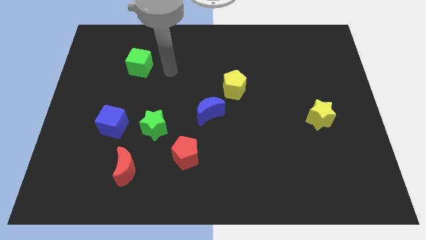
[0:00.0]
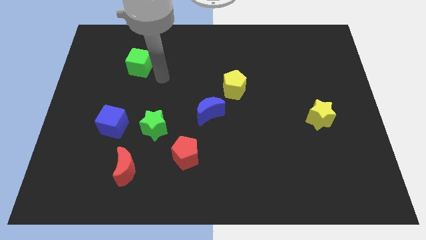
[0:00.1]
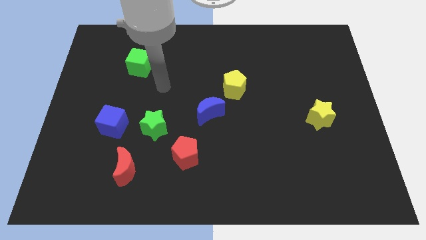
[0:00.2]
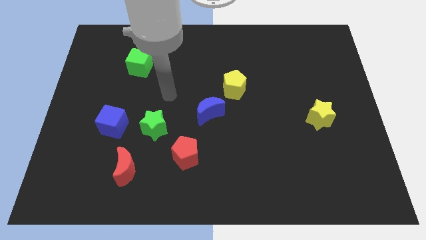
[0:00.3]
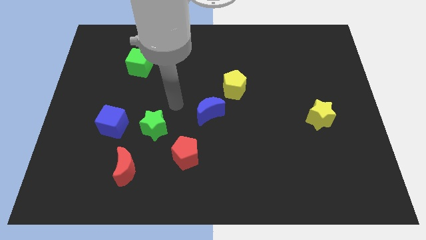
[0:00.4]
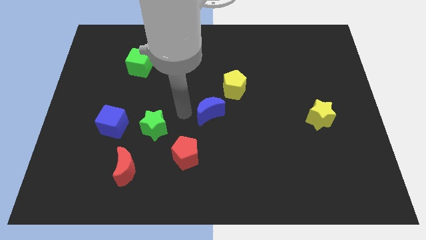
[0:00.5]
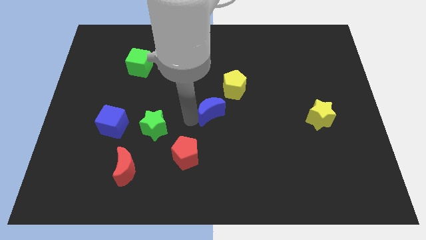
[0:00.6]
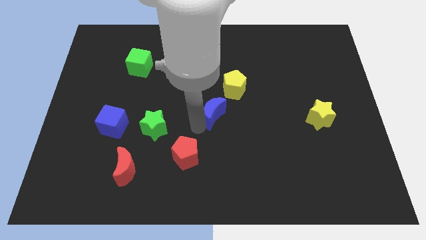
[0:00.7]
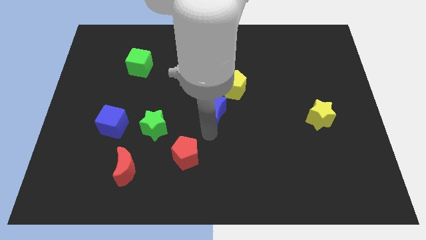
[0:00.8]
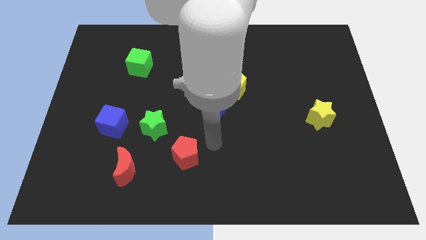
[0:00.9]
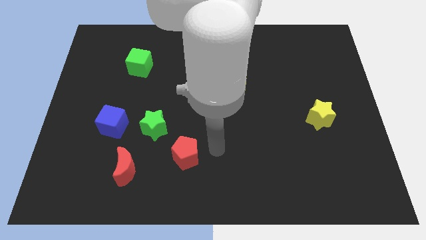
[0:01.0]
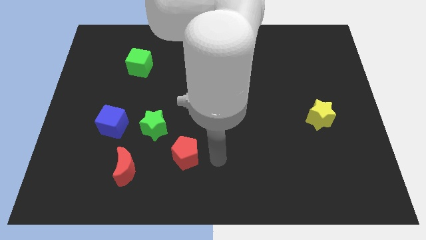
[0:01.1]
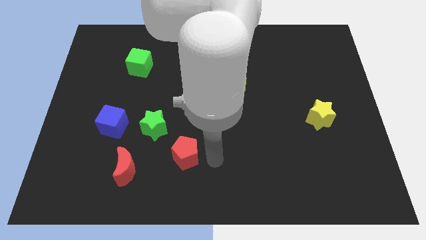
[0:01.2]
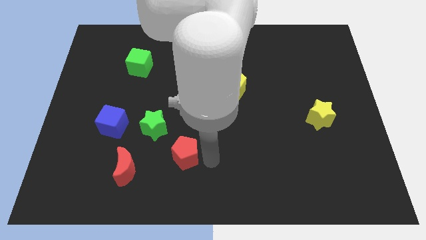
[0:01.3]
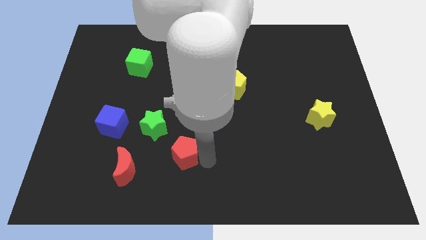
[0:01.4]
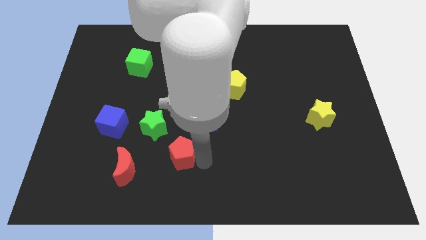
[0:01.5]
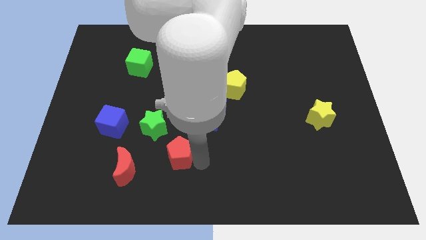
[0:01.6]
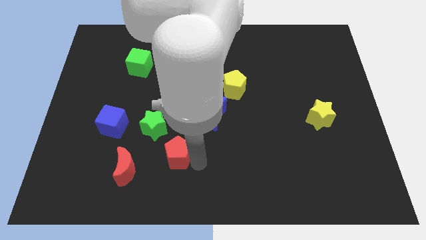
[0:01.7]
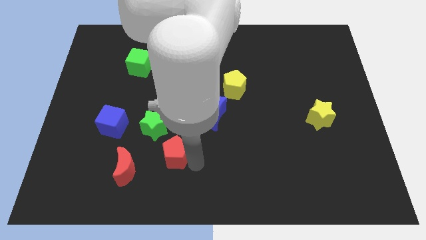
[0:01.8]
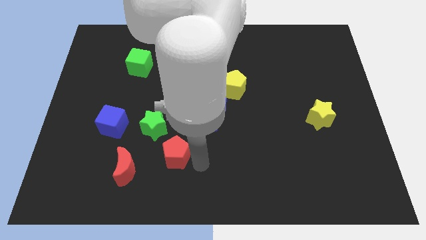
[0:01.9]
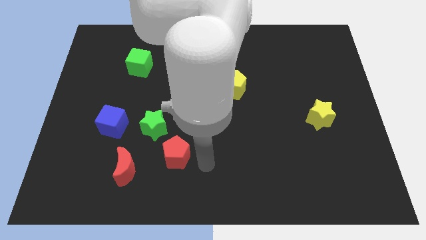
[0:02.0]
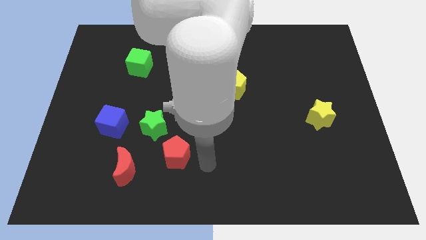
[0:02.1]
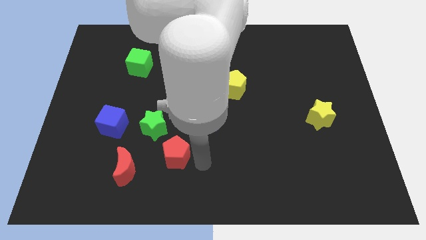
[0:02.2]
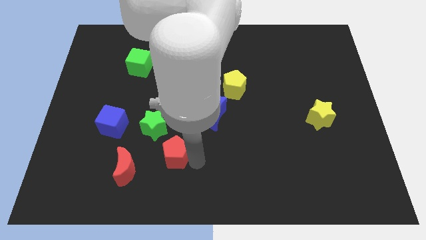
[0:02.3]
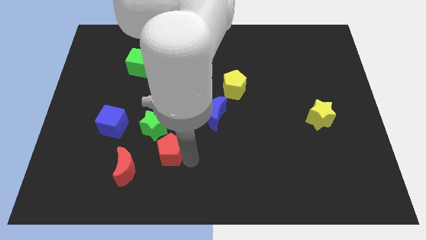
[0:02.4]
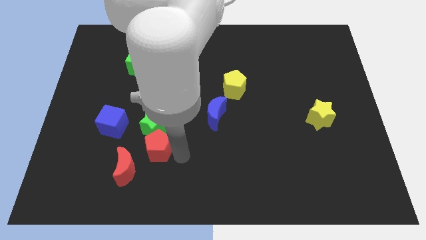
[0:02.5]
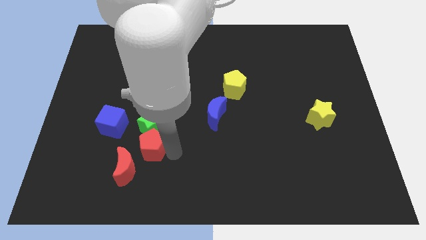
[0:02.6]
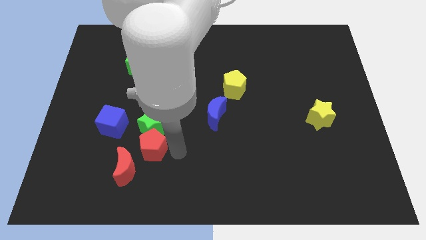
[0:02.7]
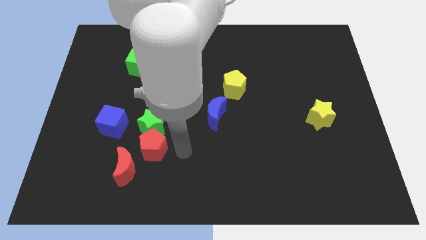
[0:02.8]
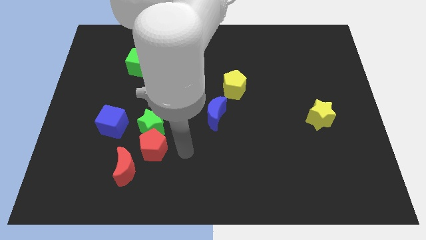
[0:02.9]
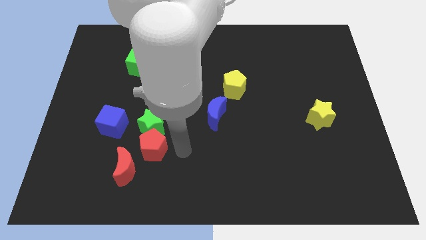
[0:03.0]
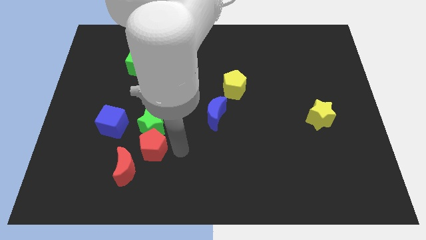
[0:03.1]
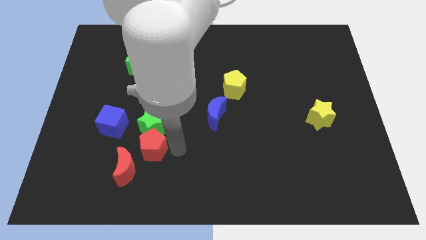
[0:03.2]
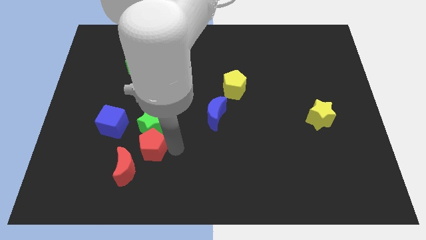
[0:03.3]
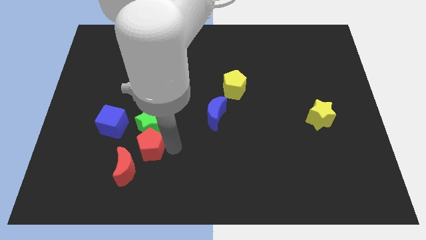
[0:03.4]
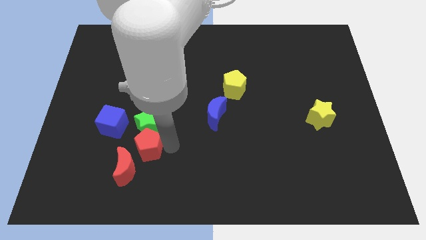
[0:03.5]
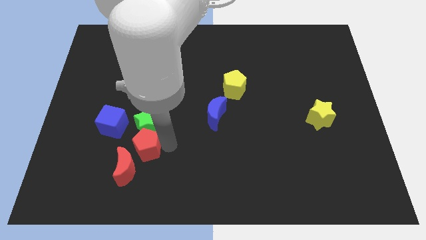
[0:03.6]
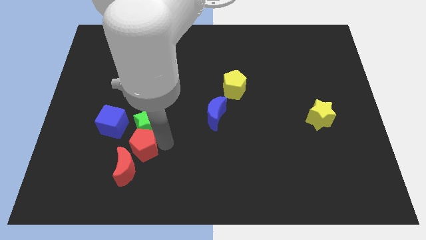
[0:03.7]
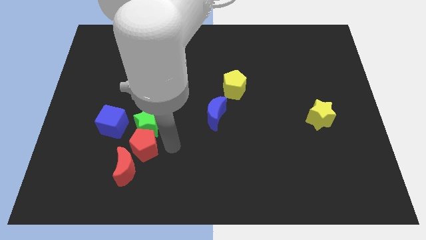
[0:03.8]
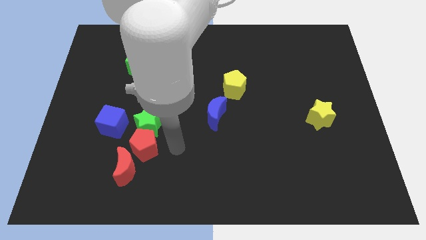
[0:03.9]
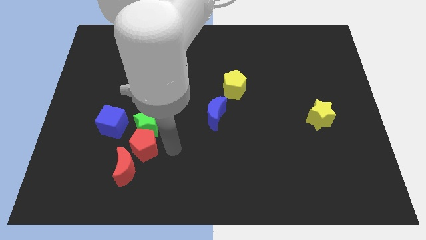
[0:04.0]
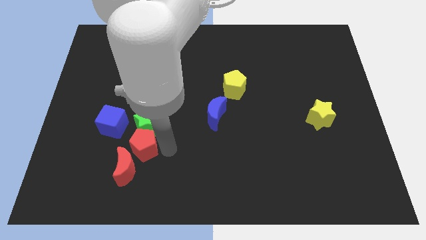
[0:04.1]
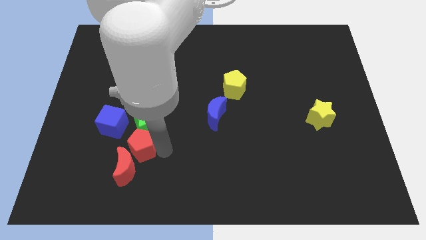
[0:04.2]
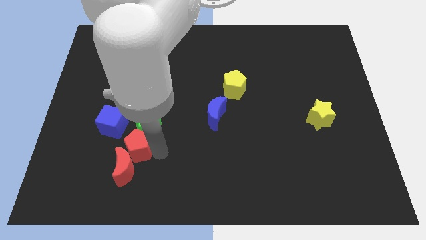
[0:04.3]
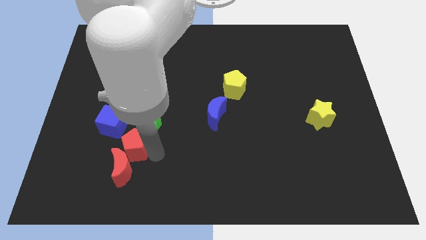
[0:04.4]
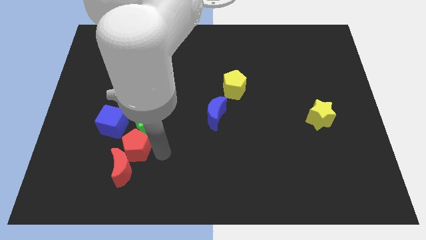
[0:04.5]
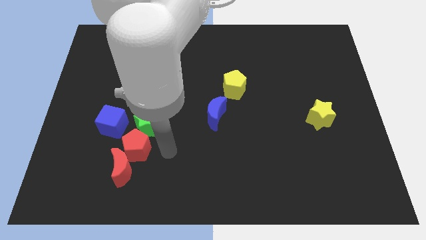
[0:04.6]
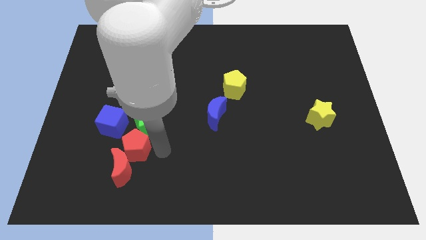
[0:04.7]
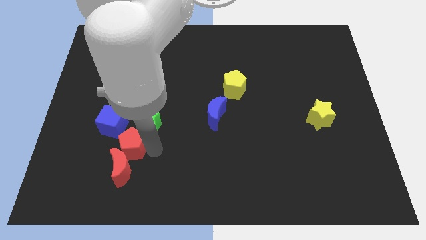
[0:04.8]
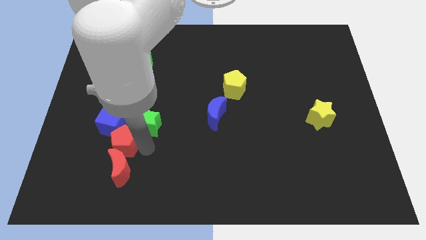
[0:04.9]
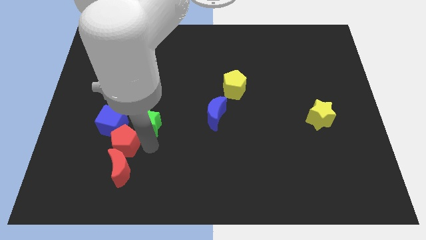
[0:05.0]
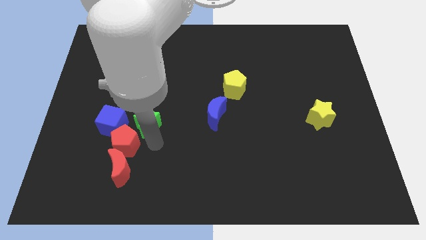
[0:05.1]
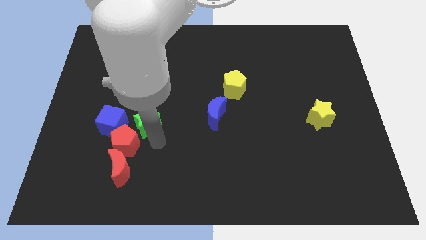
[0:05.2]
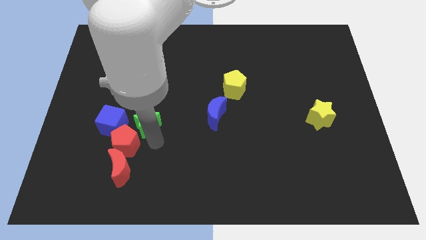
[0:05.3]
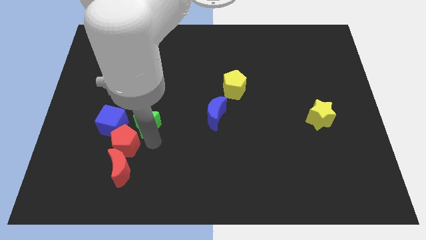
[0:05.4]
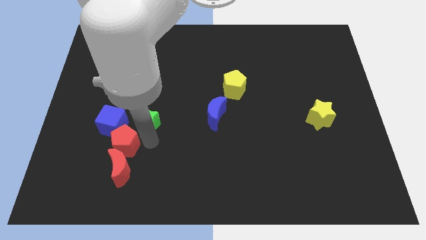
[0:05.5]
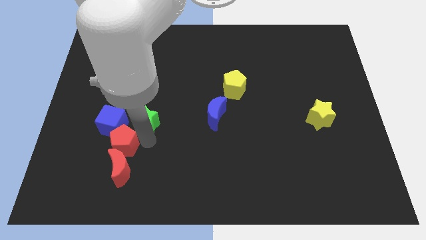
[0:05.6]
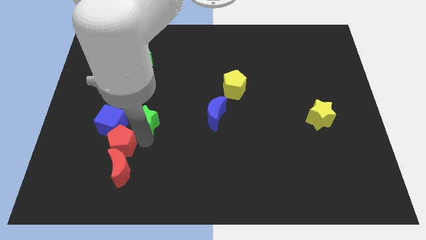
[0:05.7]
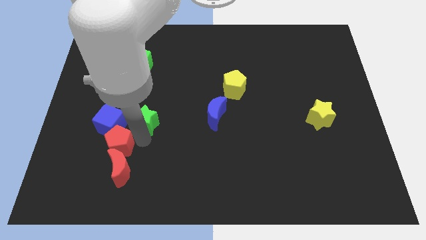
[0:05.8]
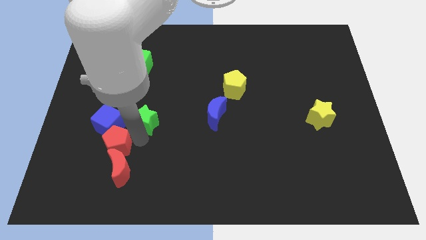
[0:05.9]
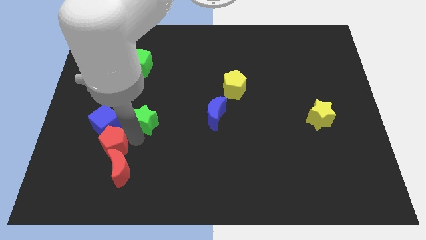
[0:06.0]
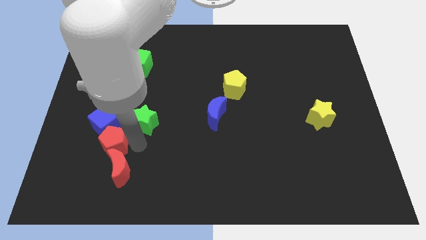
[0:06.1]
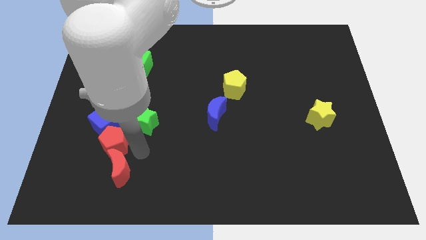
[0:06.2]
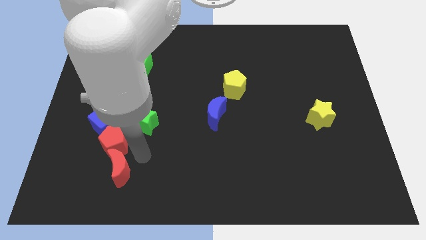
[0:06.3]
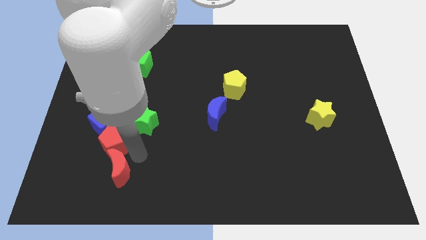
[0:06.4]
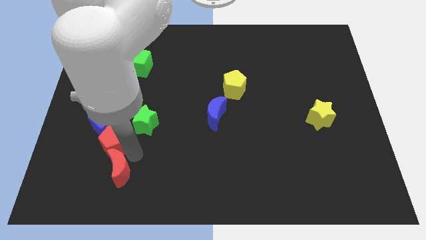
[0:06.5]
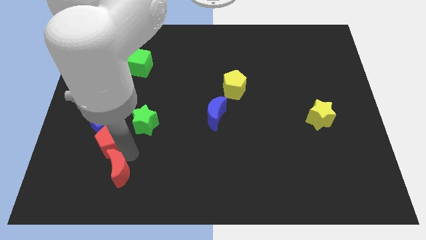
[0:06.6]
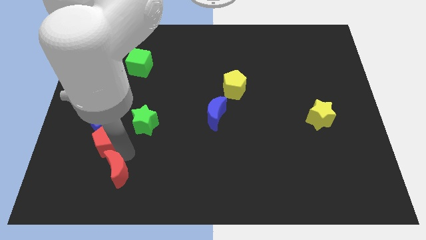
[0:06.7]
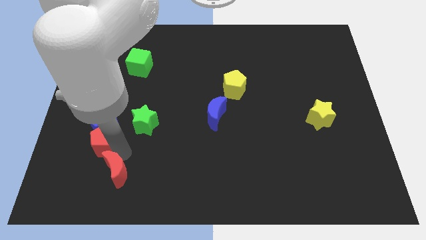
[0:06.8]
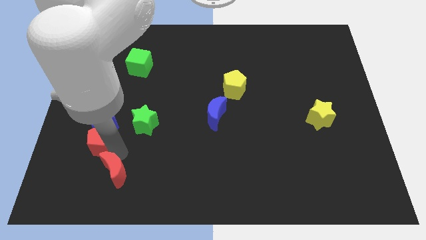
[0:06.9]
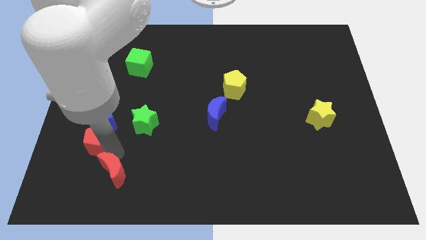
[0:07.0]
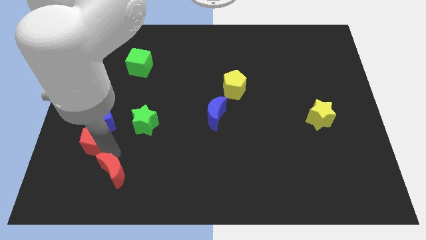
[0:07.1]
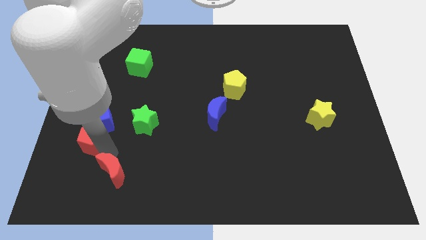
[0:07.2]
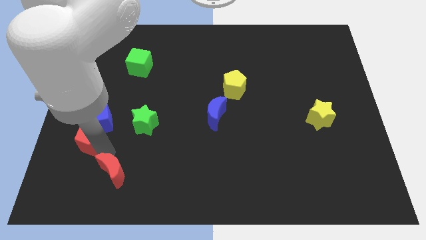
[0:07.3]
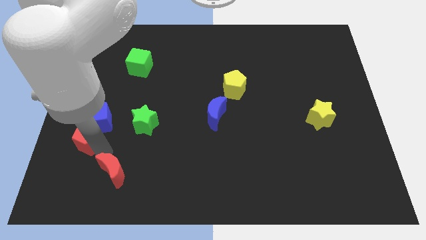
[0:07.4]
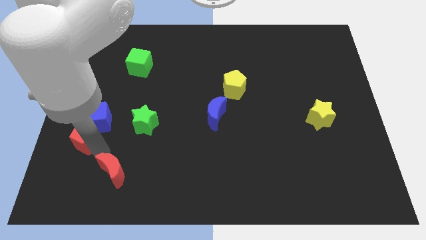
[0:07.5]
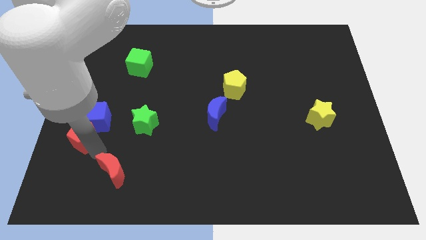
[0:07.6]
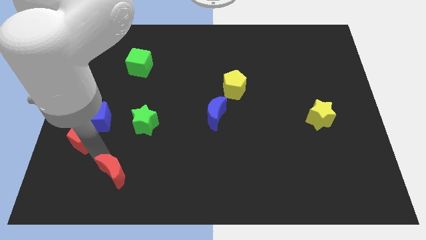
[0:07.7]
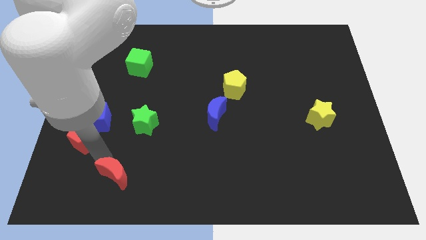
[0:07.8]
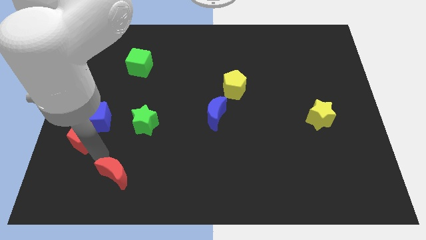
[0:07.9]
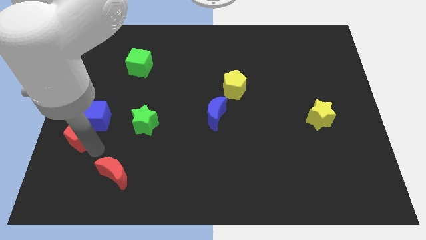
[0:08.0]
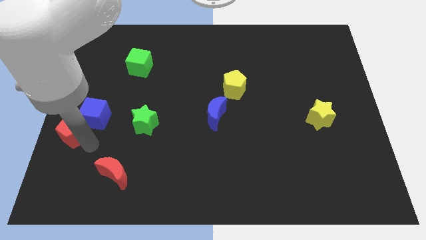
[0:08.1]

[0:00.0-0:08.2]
push the red pentagon to the left side
